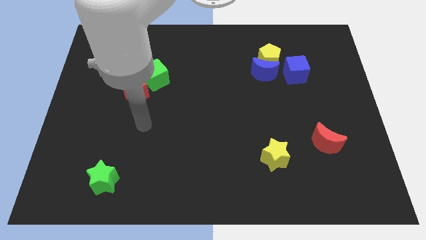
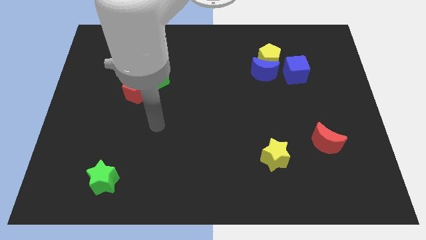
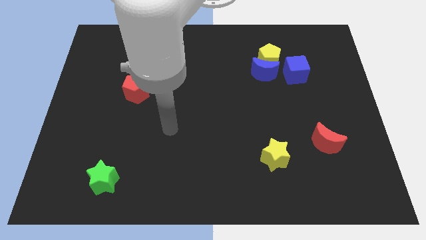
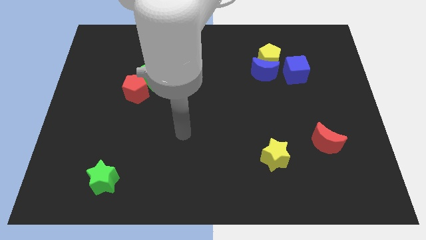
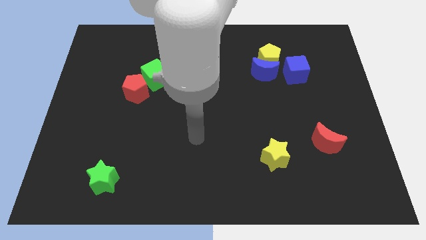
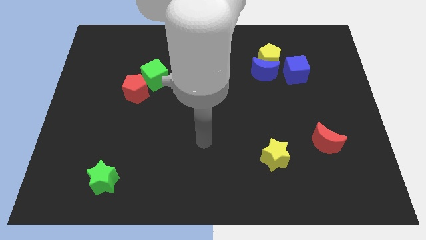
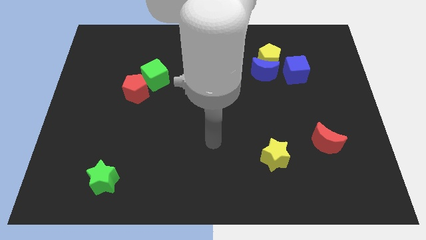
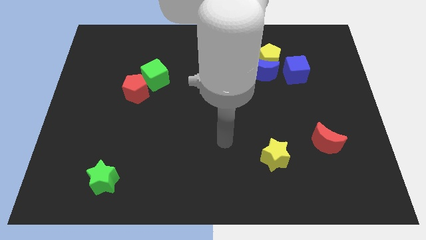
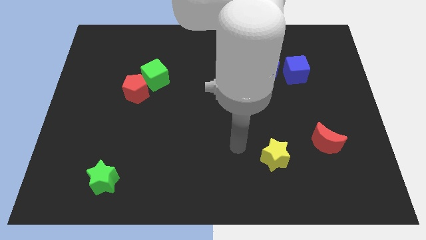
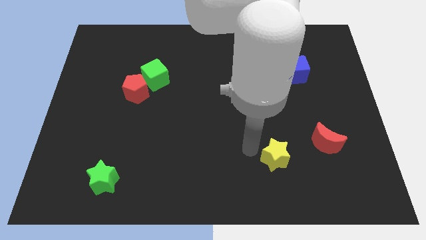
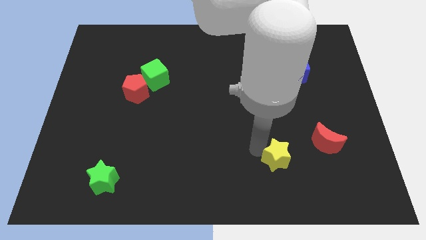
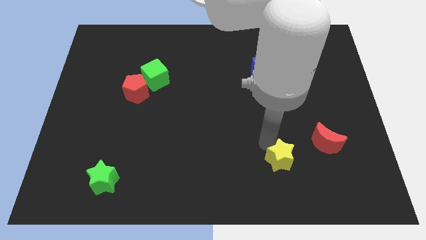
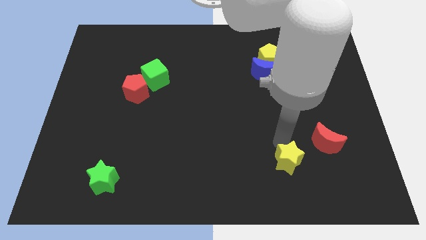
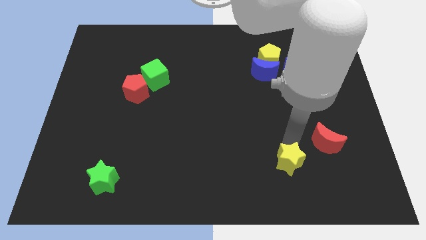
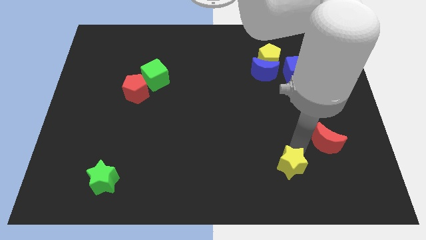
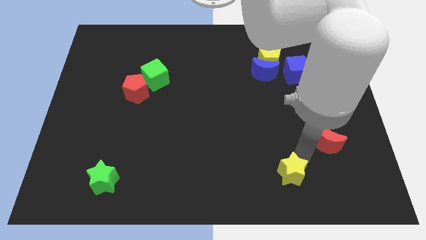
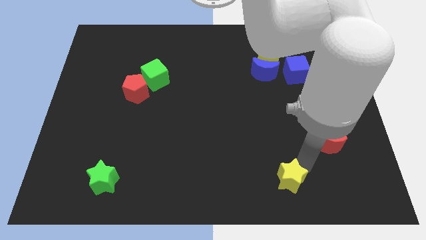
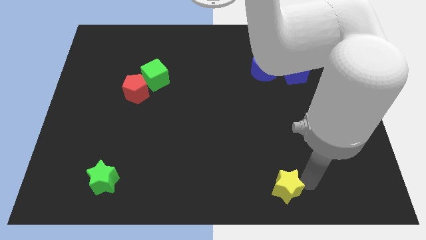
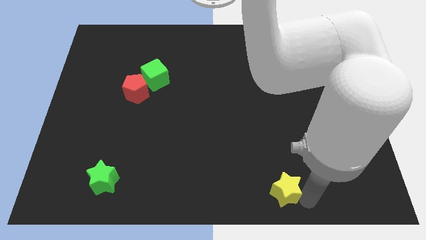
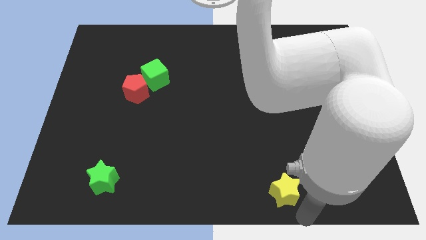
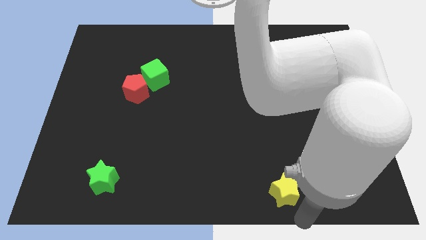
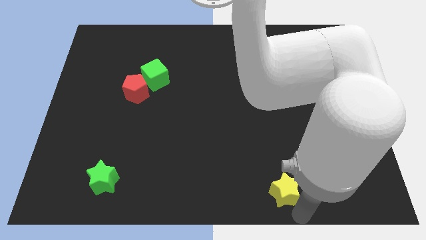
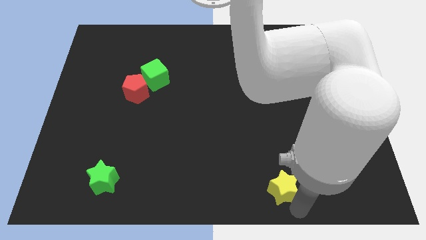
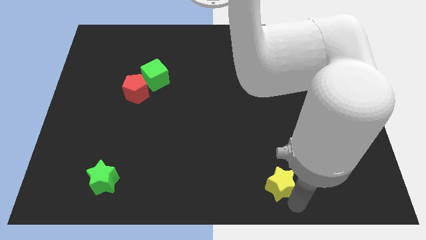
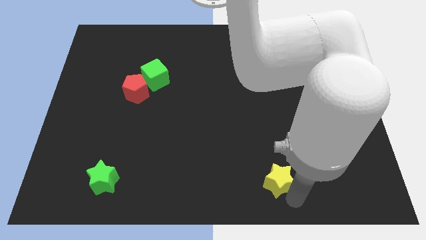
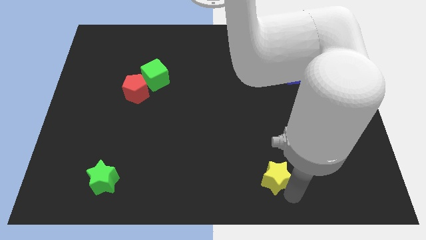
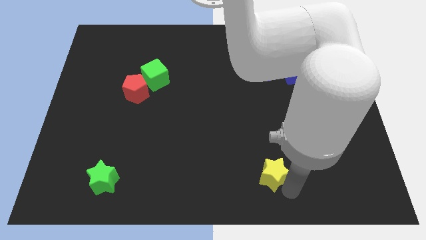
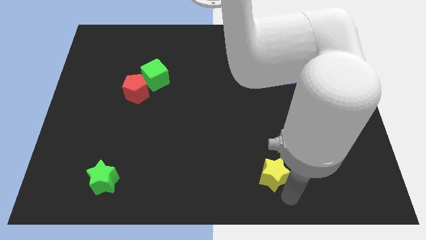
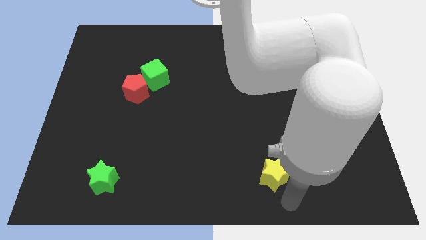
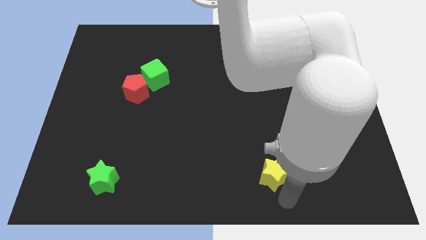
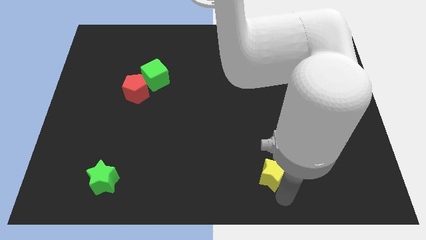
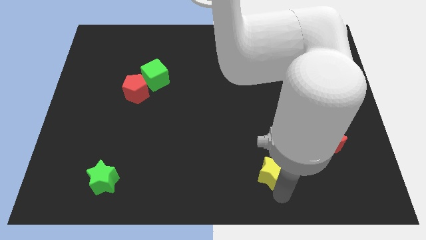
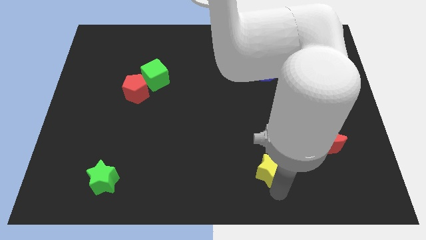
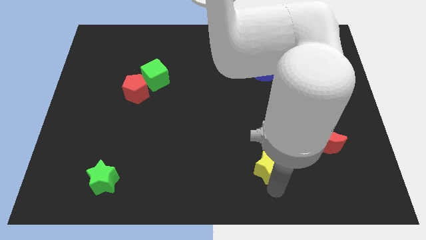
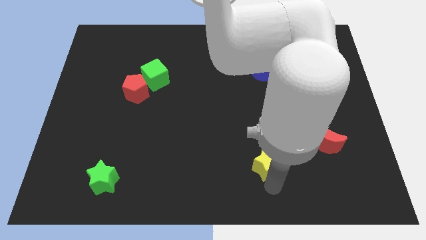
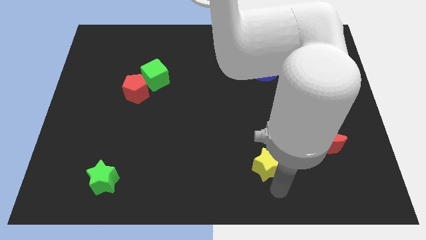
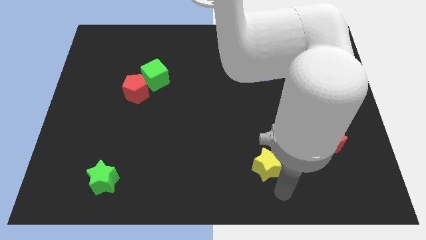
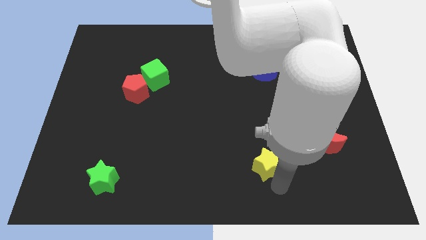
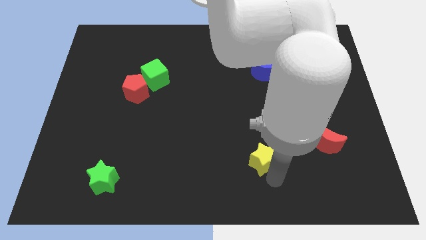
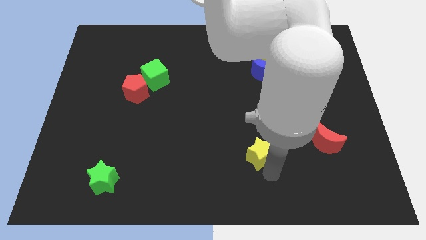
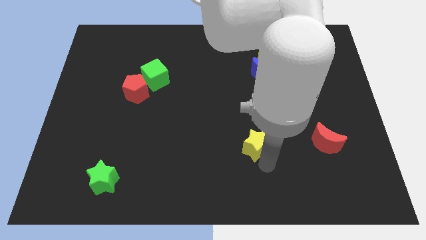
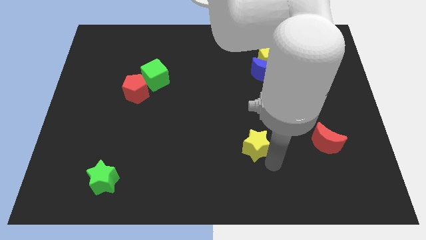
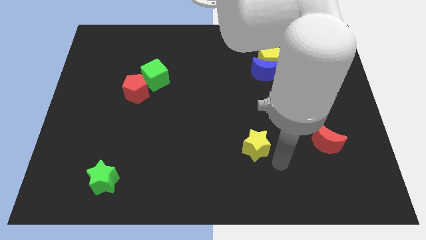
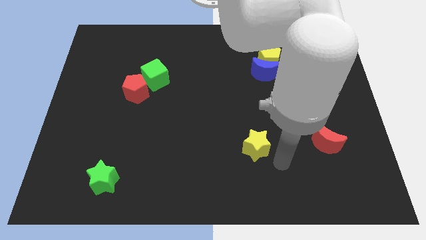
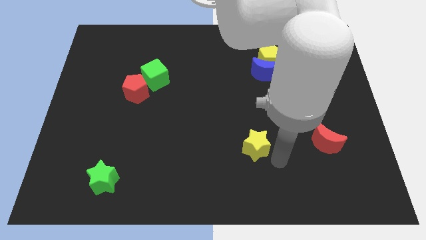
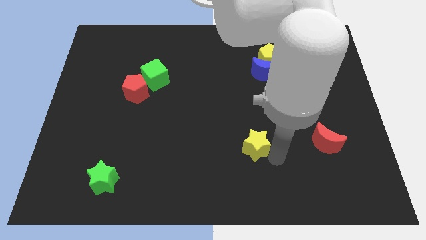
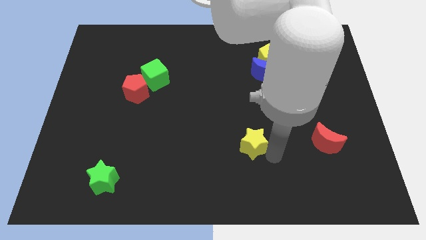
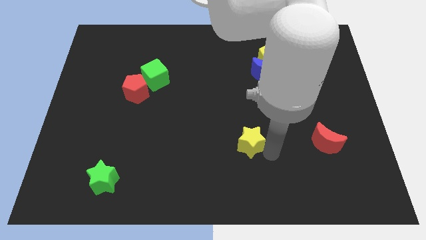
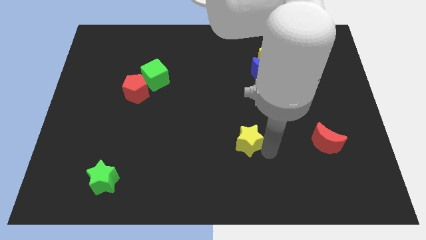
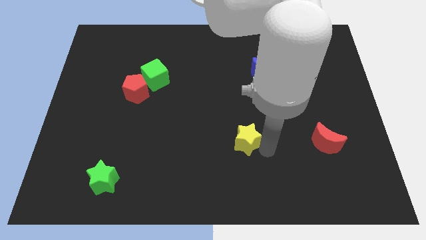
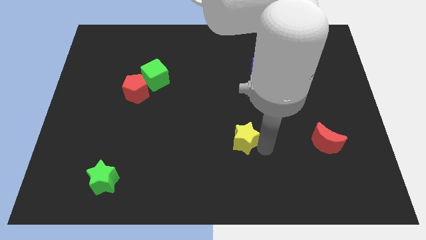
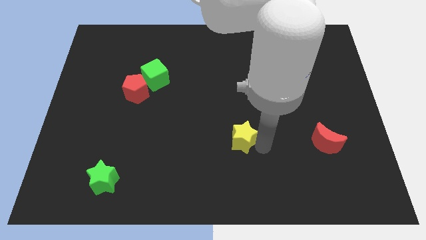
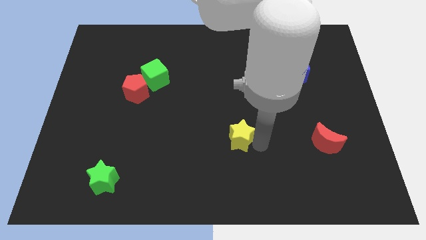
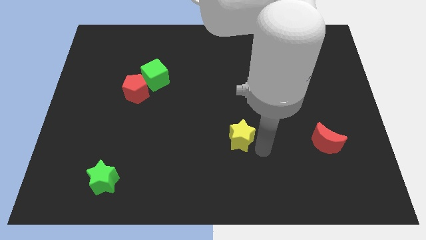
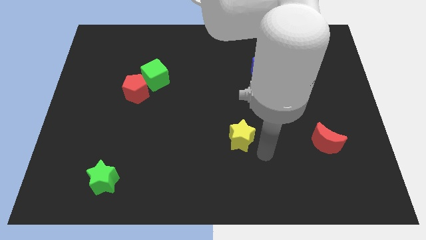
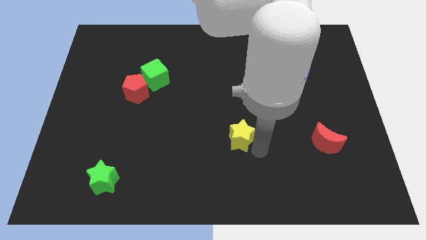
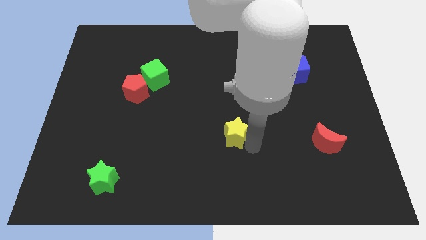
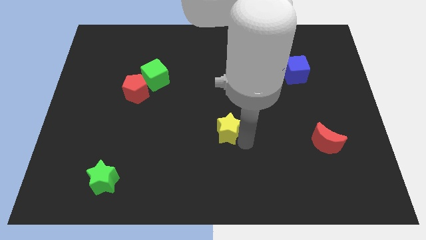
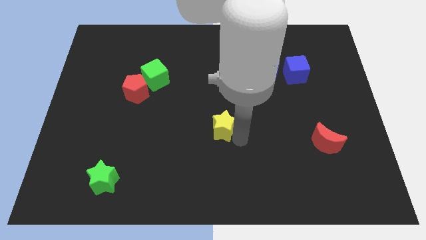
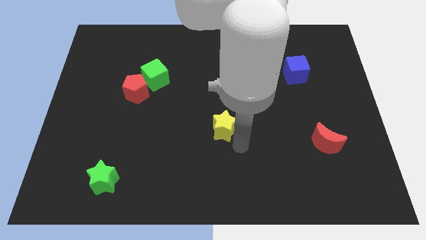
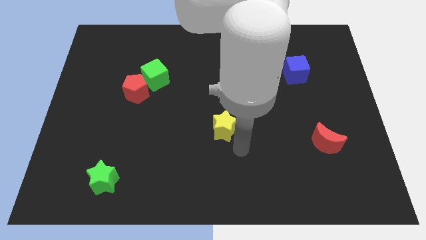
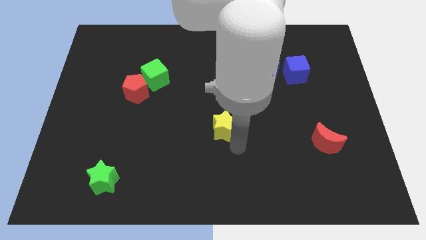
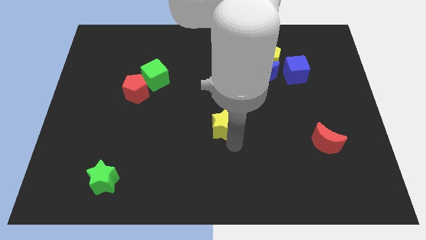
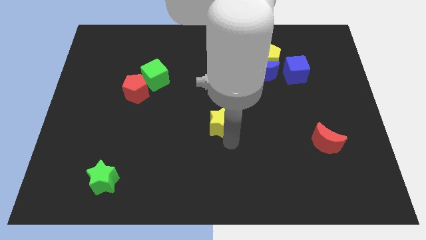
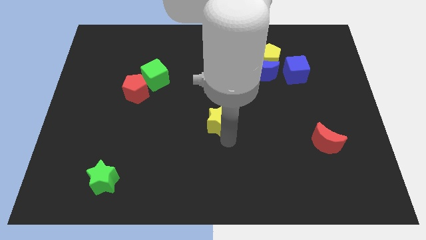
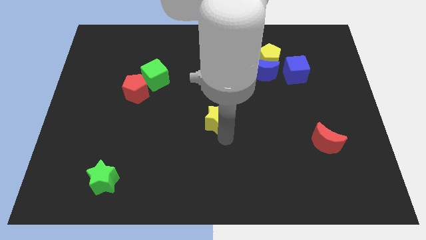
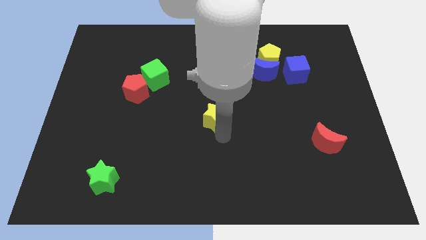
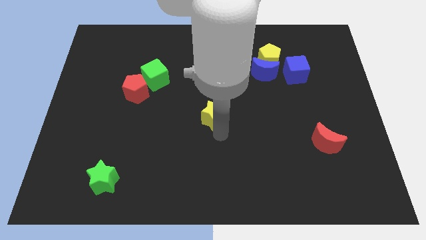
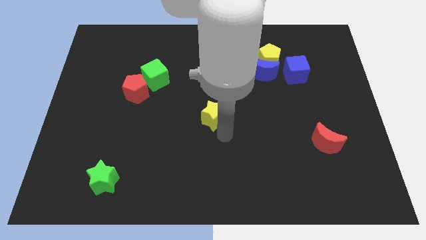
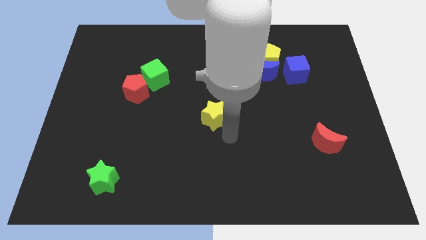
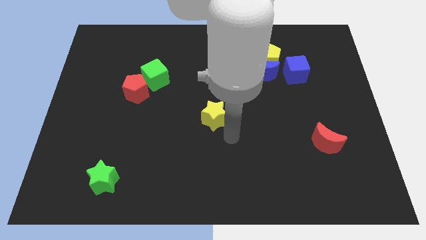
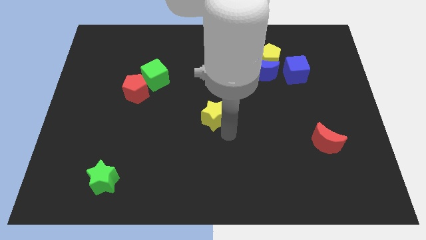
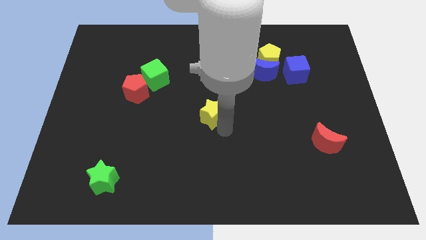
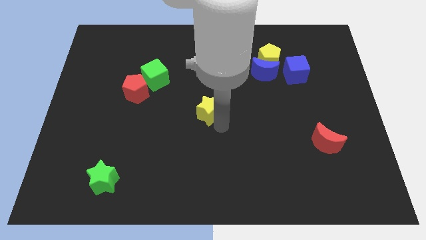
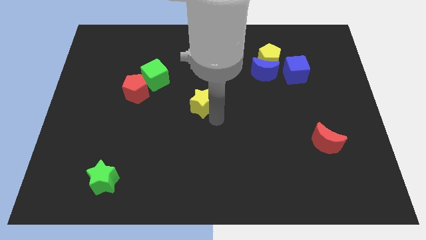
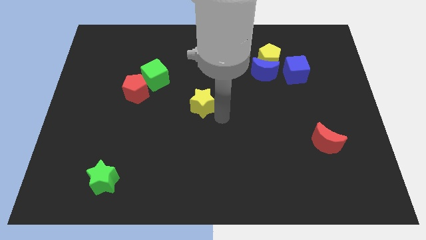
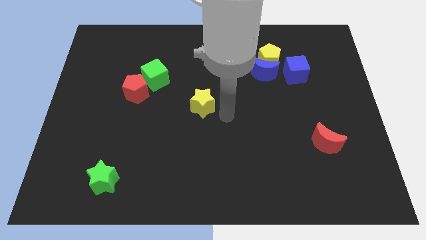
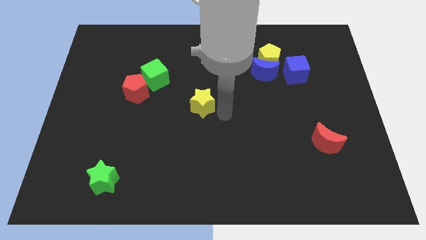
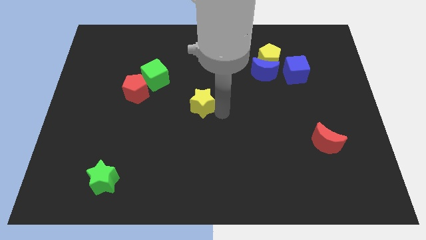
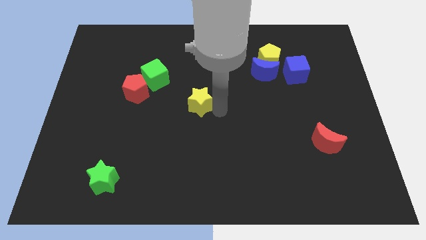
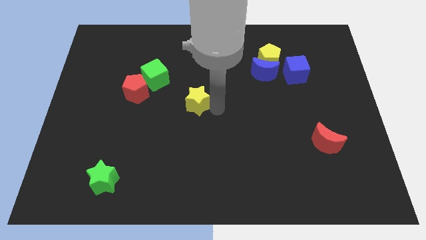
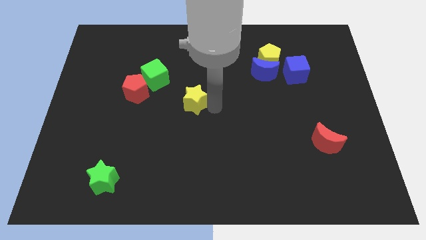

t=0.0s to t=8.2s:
push the yellow star diagonally down and to the right of the green cube
